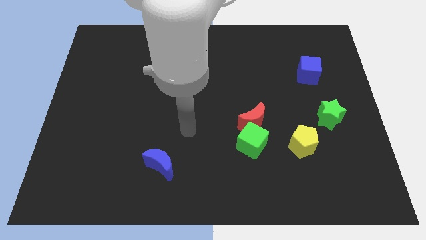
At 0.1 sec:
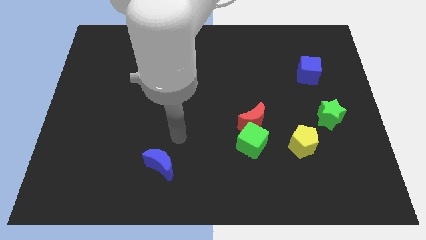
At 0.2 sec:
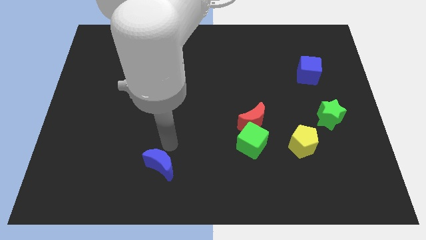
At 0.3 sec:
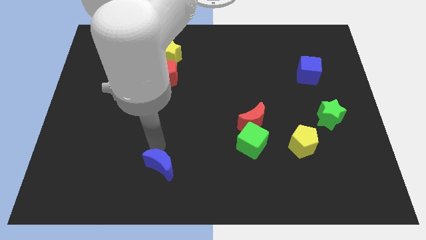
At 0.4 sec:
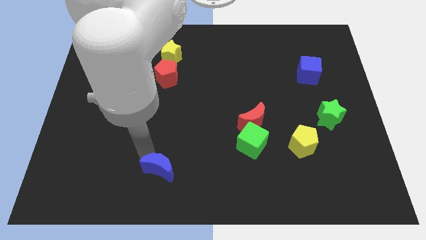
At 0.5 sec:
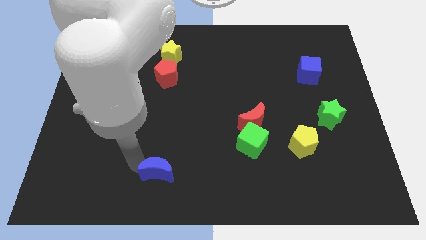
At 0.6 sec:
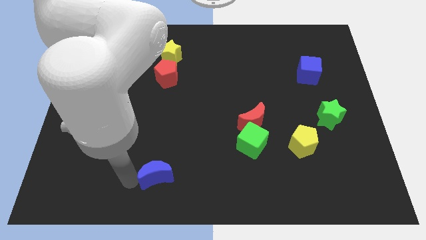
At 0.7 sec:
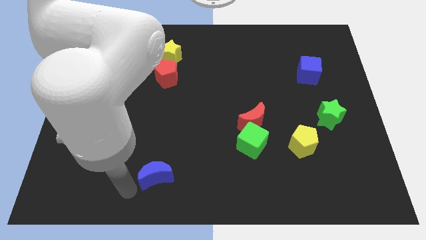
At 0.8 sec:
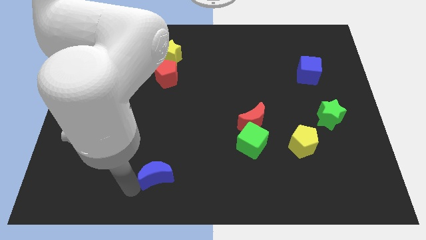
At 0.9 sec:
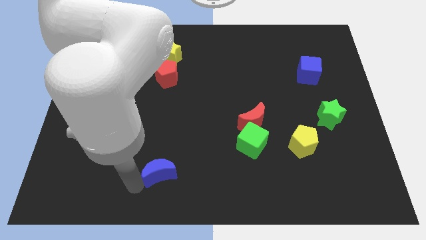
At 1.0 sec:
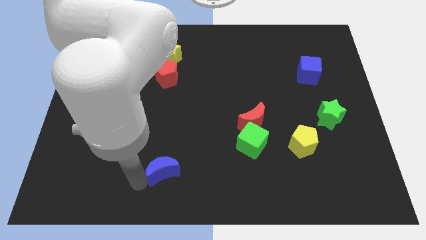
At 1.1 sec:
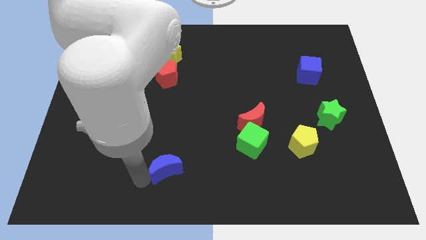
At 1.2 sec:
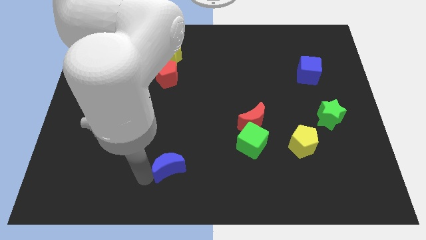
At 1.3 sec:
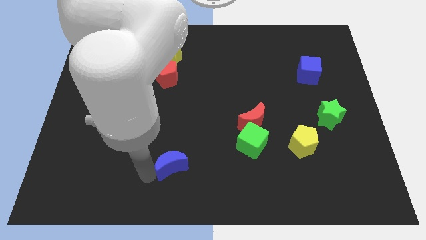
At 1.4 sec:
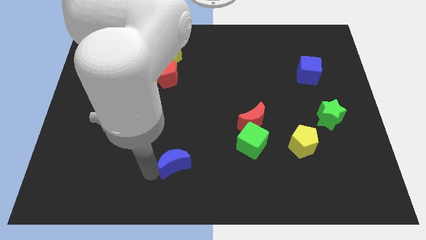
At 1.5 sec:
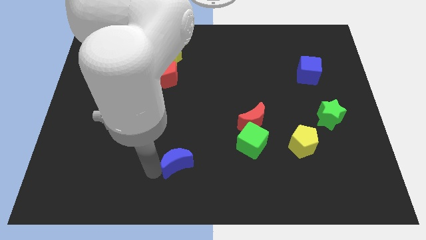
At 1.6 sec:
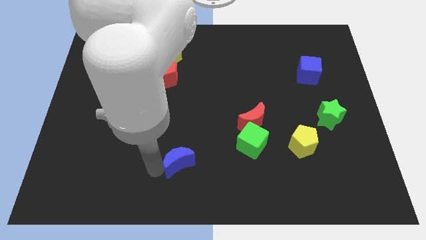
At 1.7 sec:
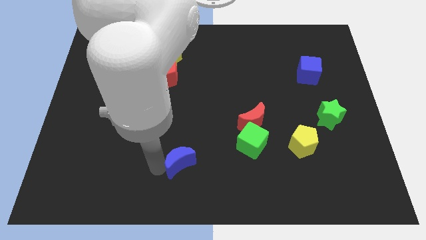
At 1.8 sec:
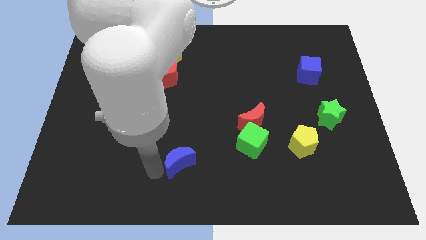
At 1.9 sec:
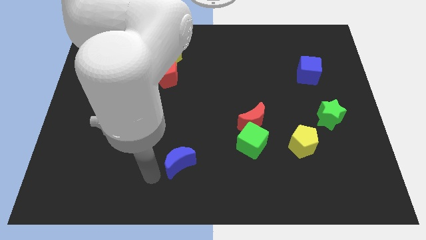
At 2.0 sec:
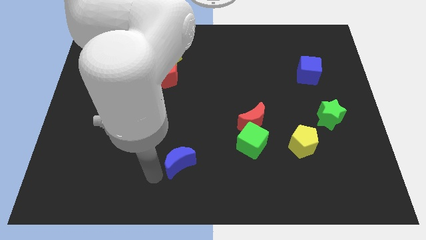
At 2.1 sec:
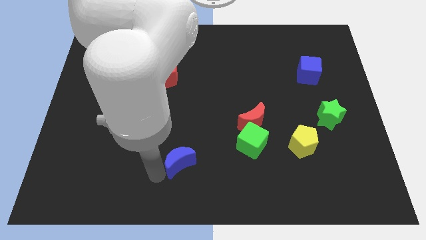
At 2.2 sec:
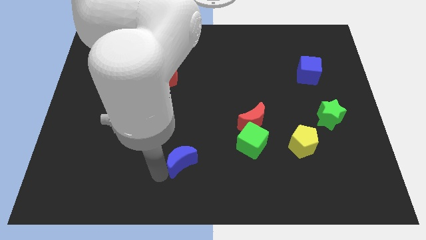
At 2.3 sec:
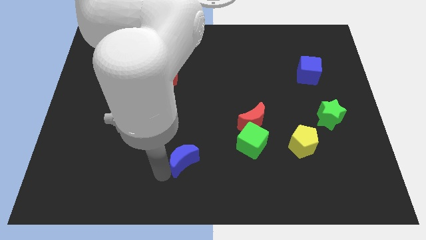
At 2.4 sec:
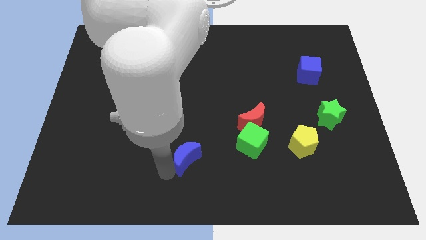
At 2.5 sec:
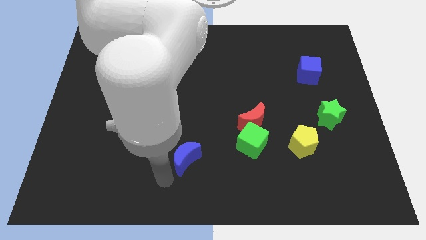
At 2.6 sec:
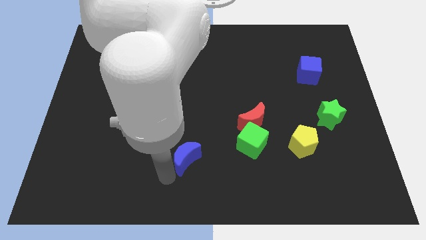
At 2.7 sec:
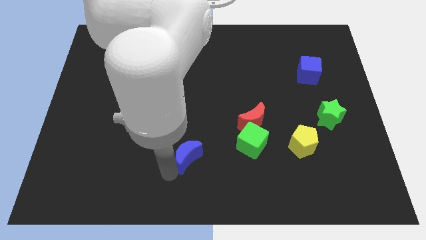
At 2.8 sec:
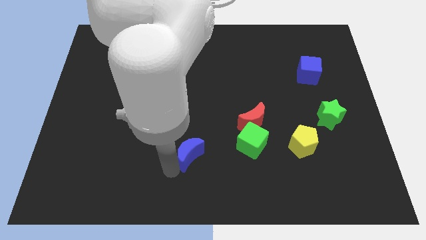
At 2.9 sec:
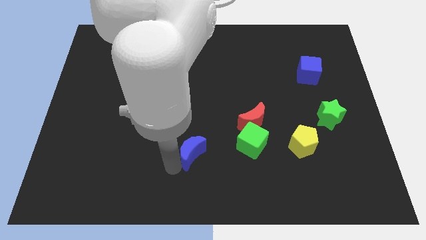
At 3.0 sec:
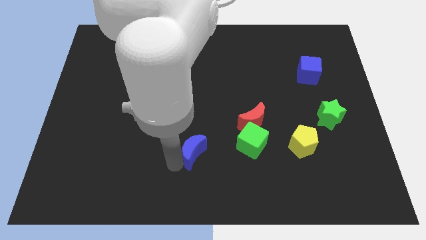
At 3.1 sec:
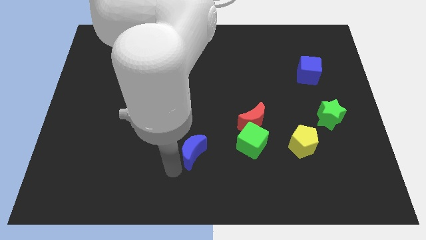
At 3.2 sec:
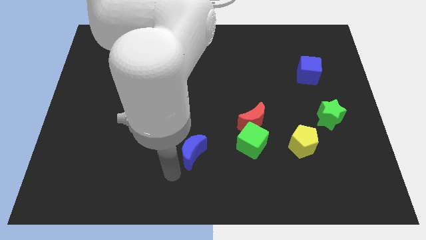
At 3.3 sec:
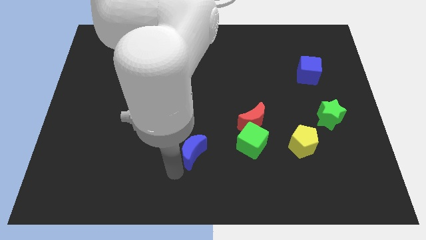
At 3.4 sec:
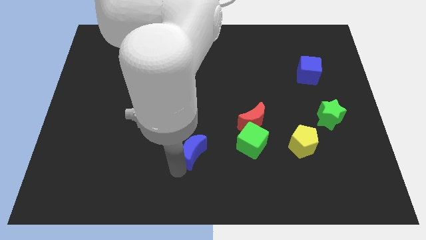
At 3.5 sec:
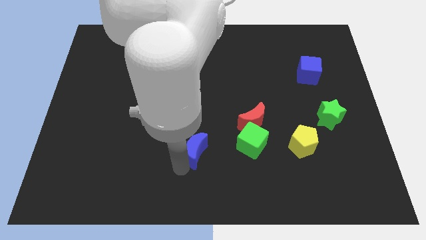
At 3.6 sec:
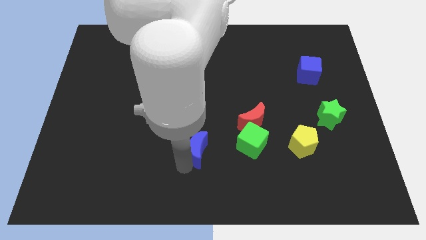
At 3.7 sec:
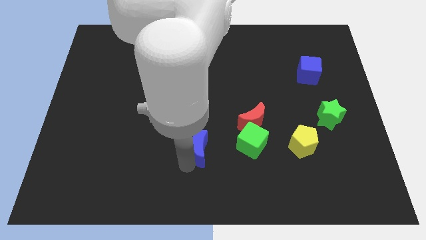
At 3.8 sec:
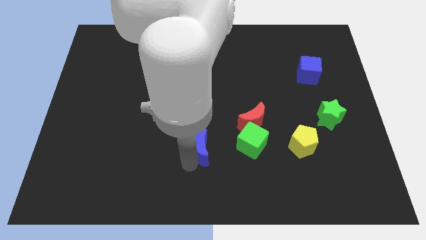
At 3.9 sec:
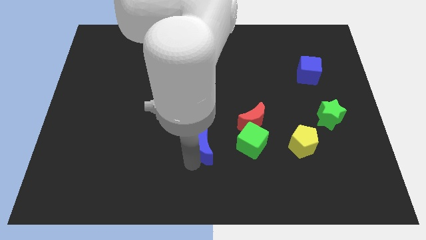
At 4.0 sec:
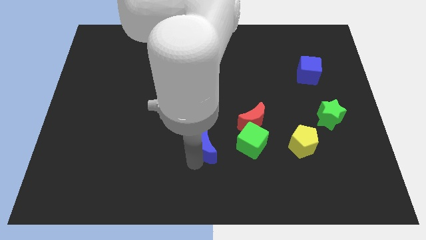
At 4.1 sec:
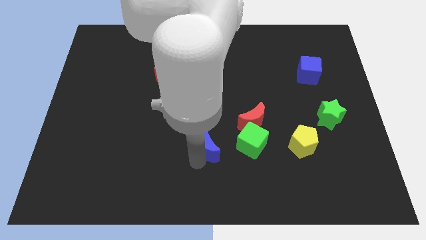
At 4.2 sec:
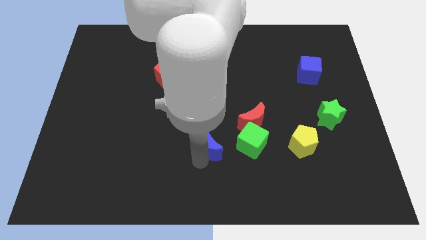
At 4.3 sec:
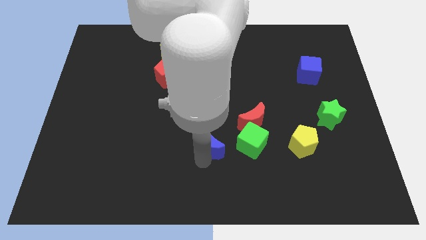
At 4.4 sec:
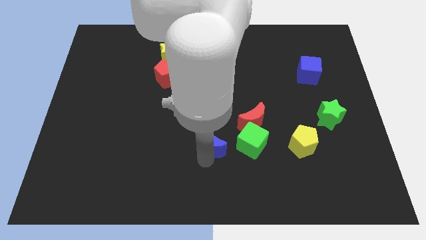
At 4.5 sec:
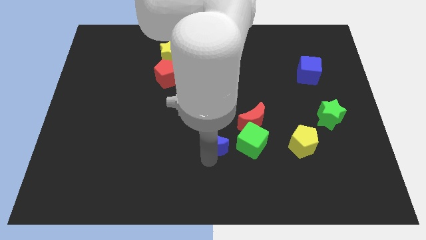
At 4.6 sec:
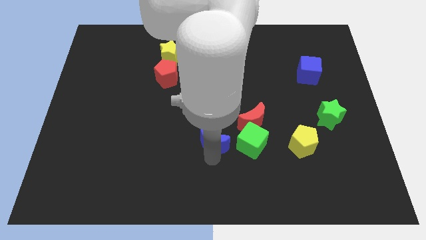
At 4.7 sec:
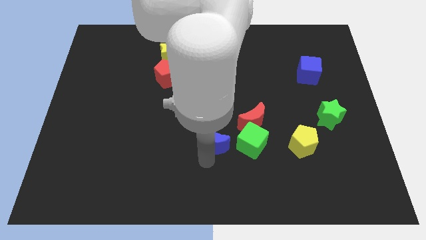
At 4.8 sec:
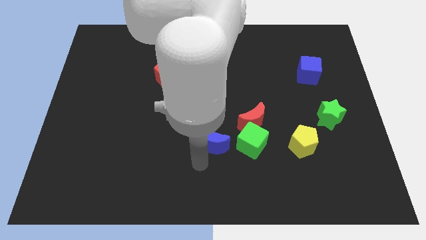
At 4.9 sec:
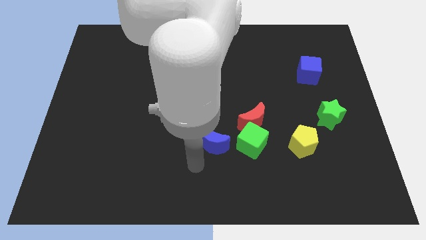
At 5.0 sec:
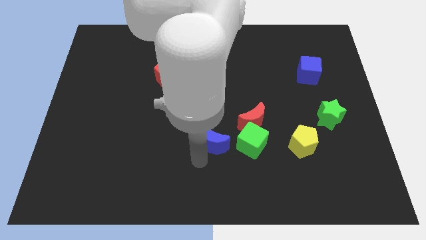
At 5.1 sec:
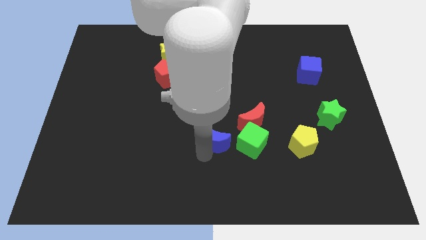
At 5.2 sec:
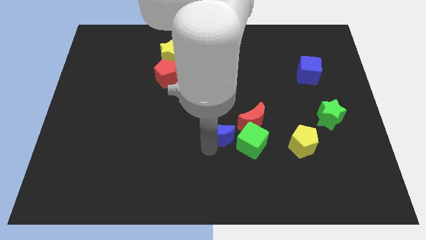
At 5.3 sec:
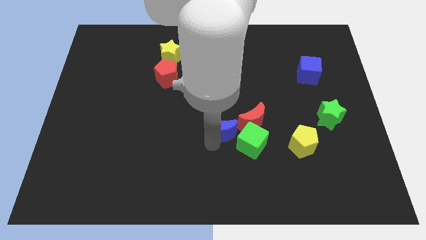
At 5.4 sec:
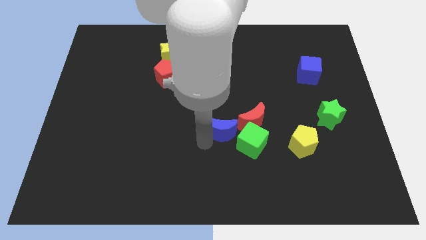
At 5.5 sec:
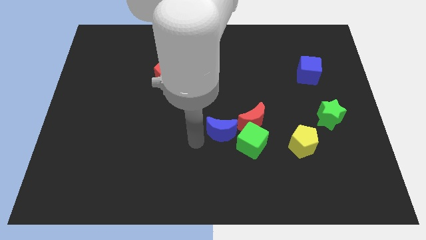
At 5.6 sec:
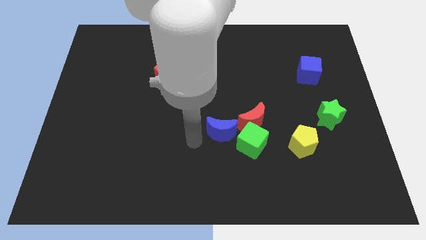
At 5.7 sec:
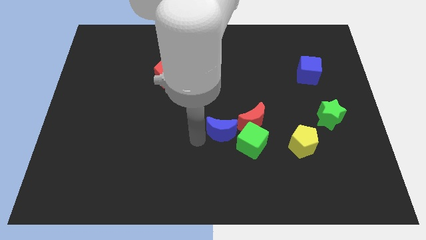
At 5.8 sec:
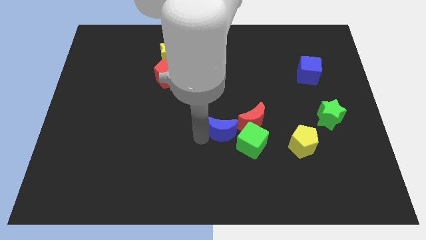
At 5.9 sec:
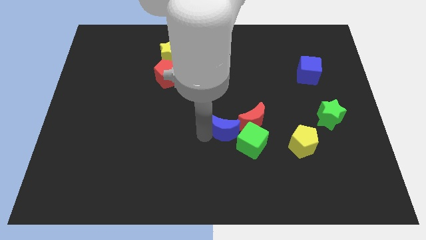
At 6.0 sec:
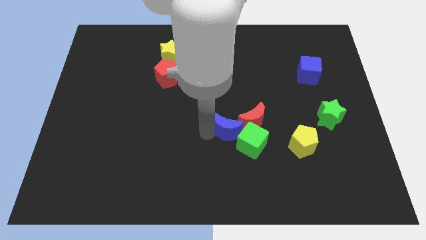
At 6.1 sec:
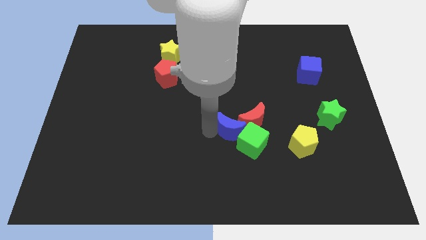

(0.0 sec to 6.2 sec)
push the blue moon to the red moon
